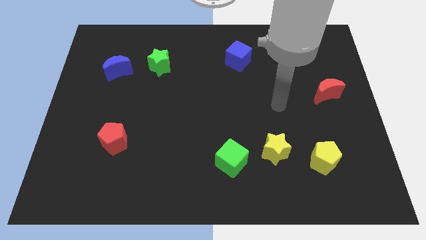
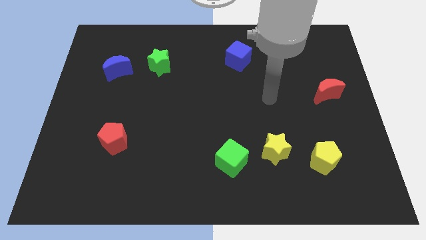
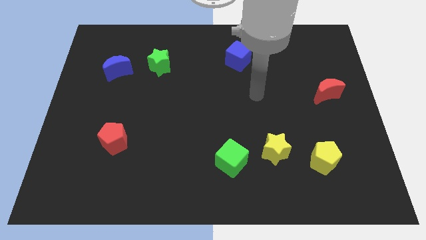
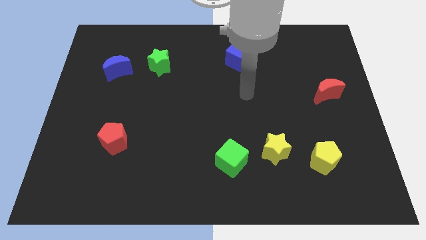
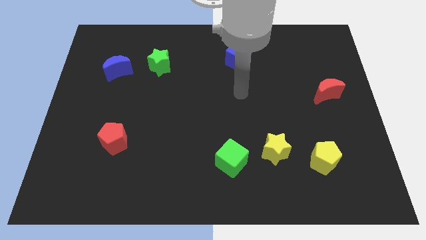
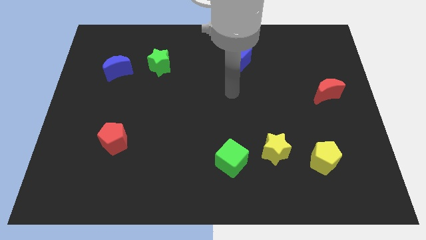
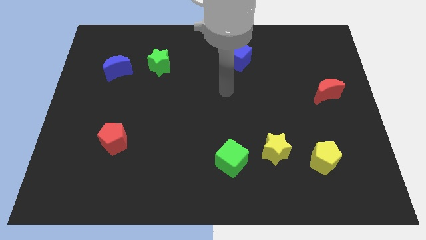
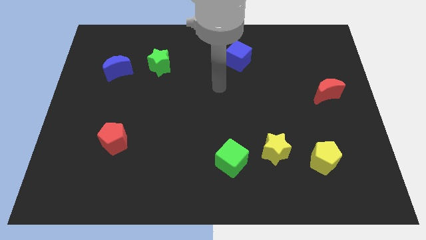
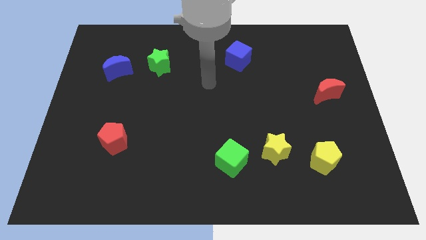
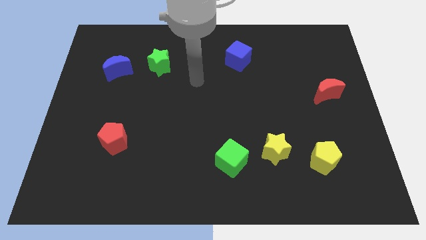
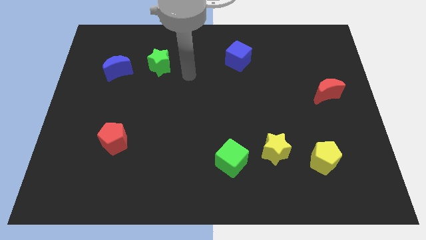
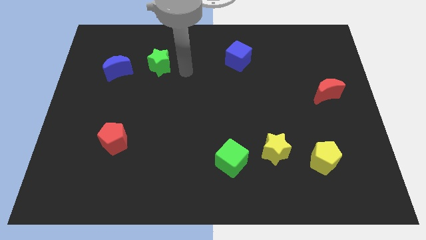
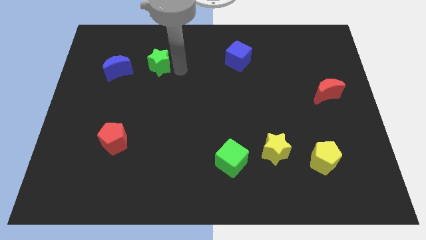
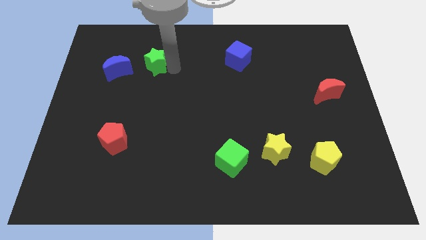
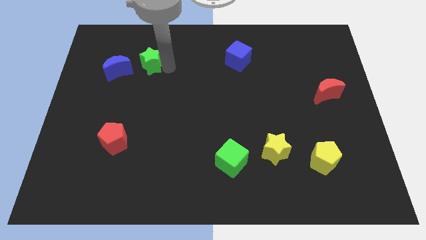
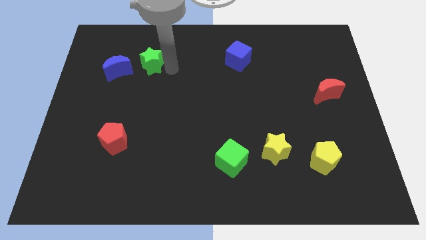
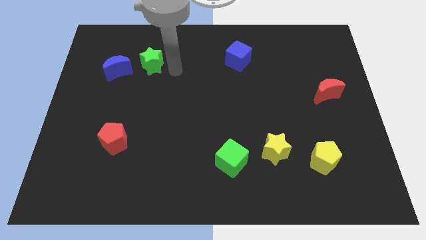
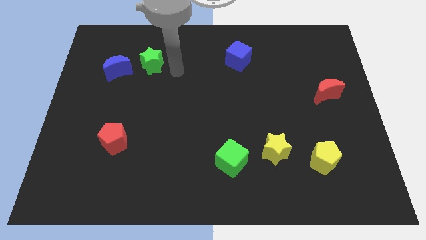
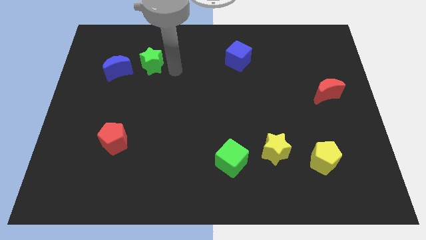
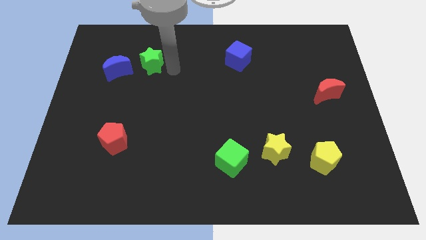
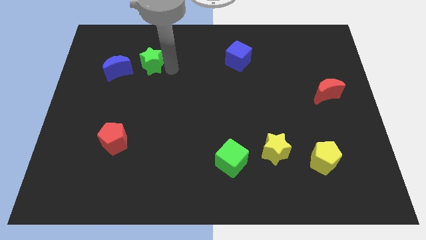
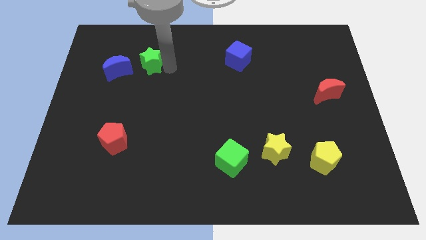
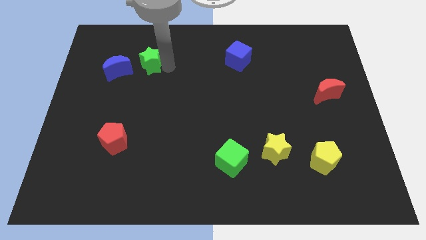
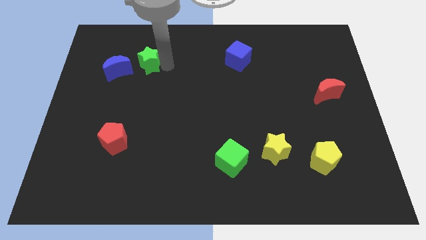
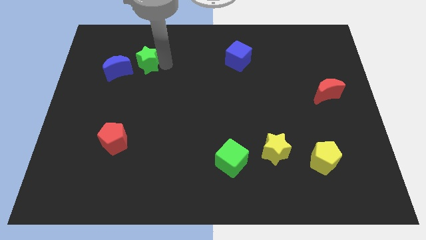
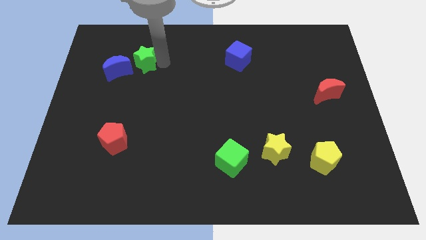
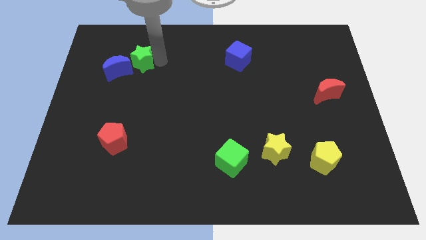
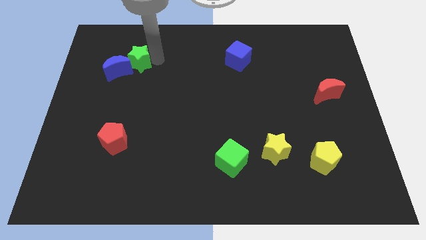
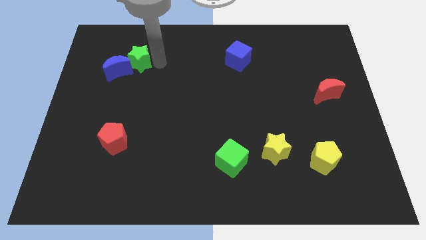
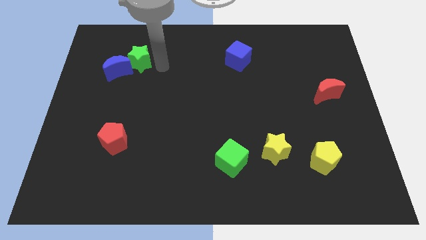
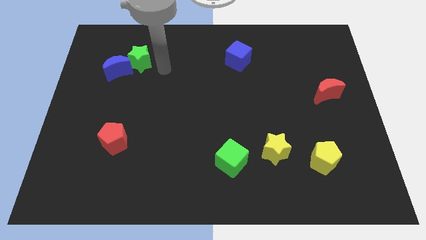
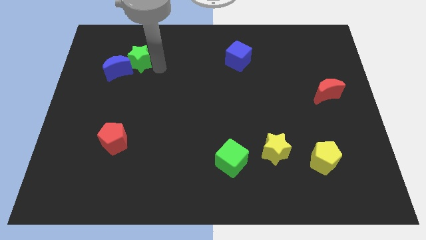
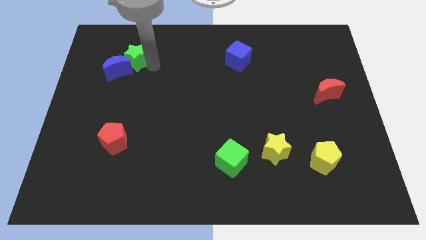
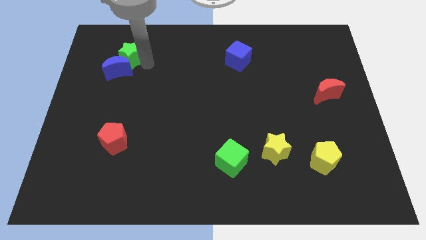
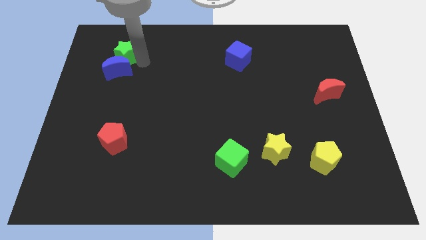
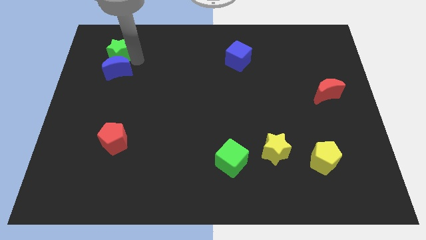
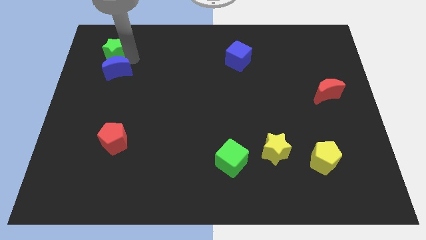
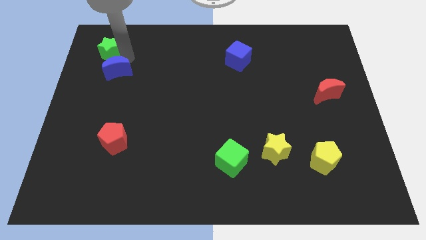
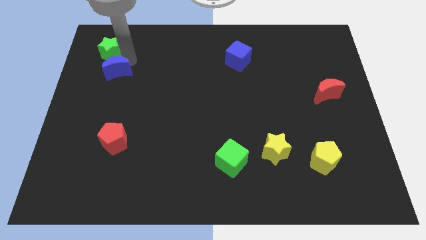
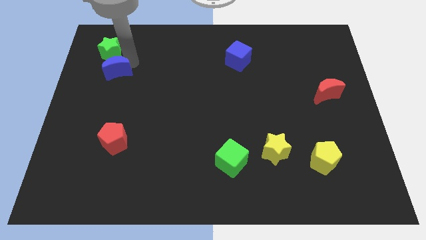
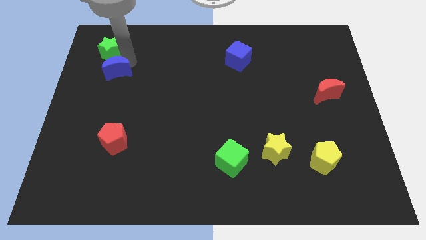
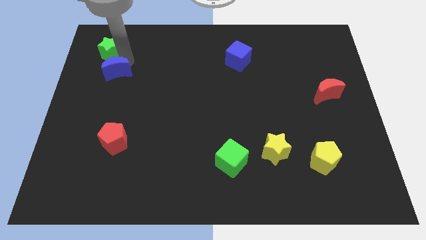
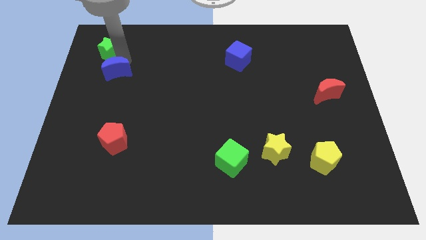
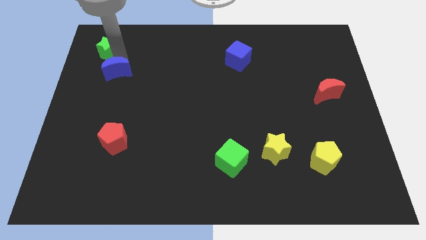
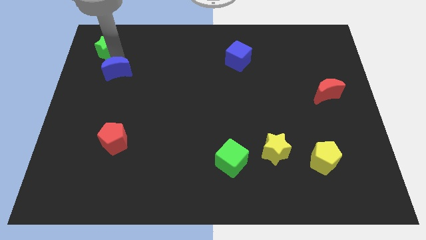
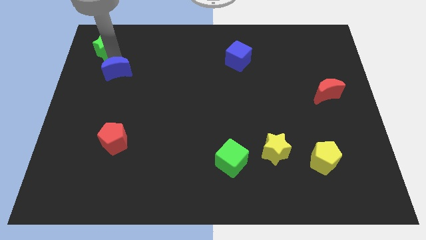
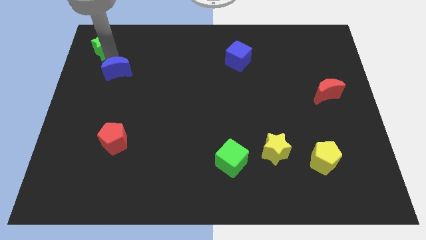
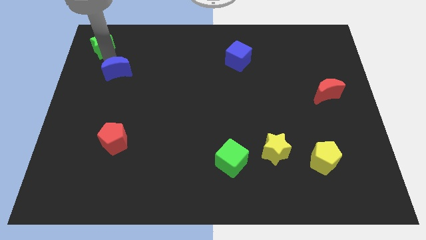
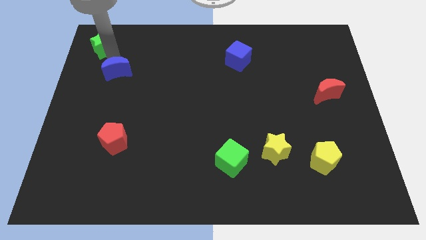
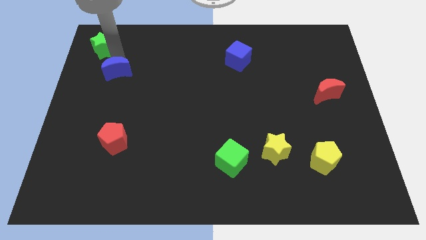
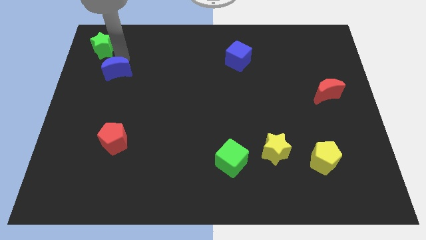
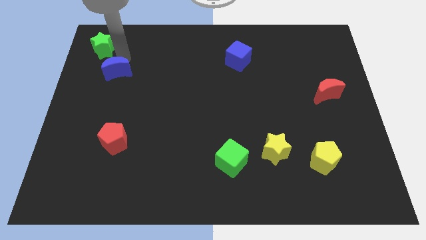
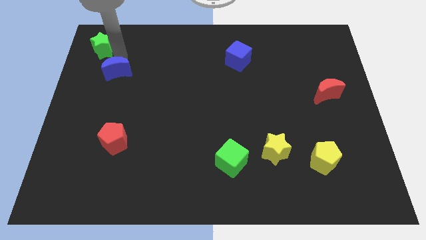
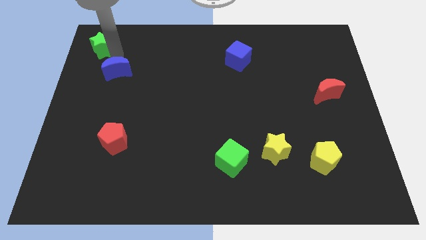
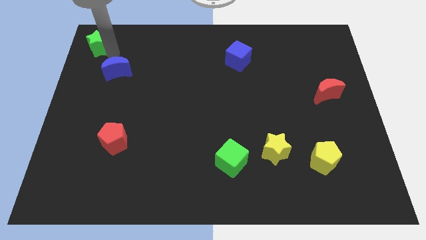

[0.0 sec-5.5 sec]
slide the green star to the top left

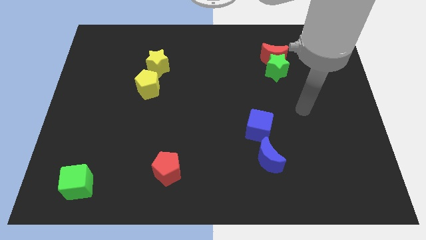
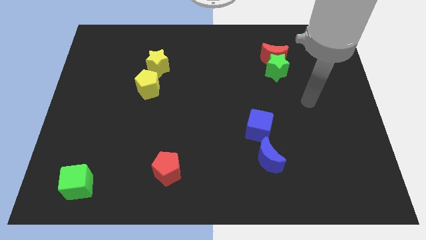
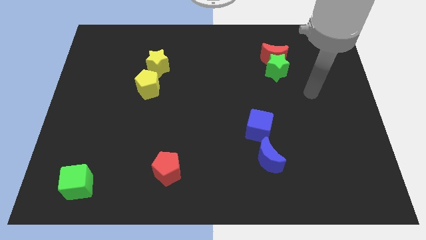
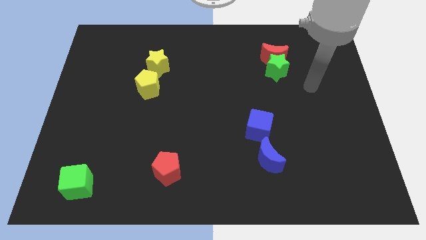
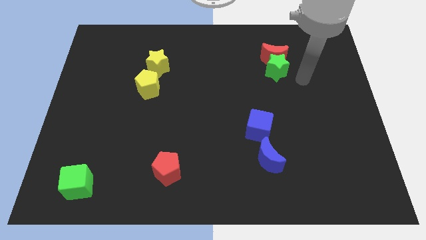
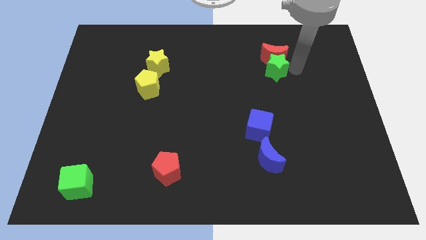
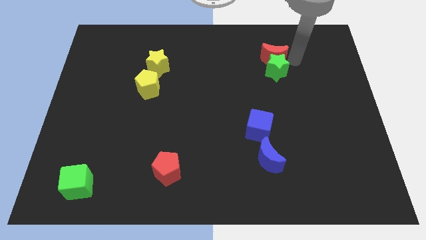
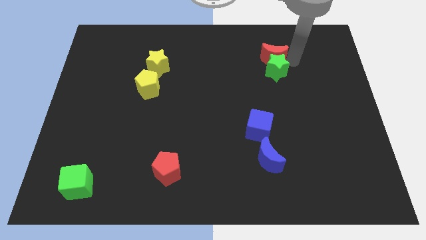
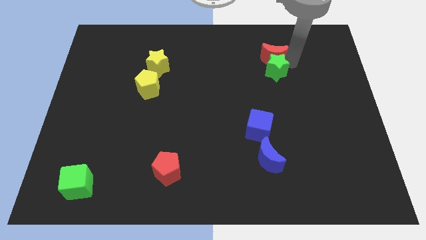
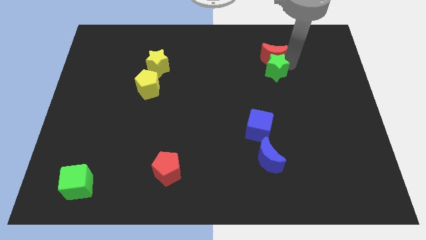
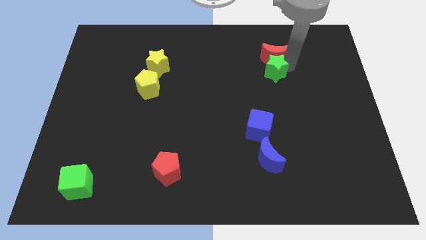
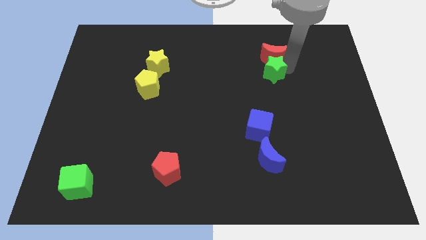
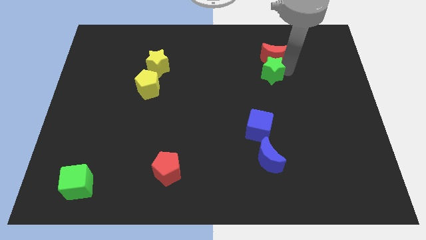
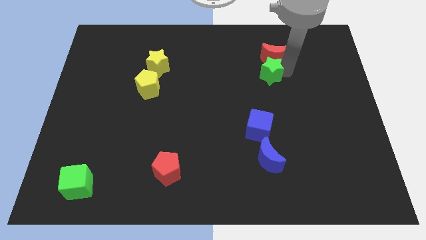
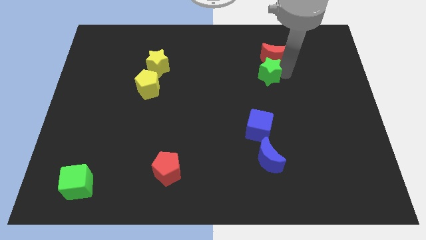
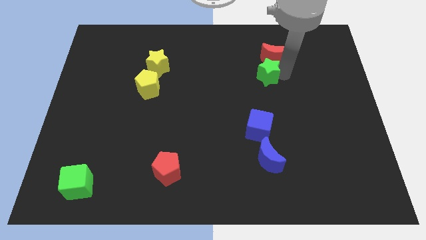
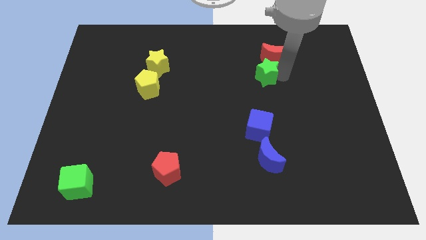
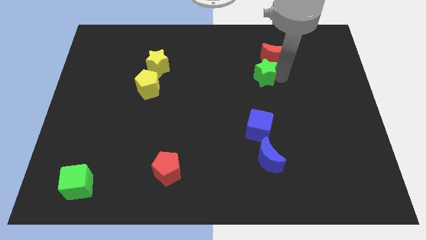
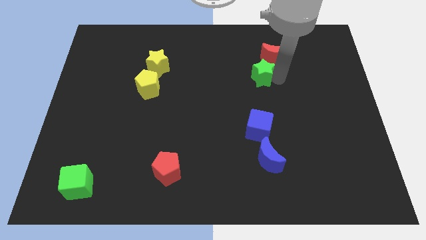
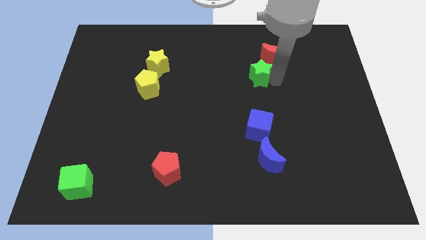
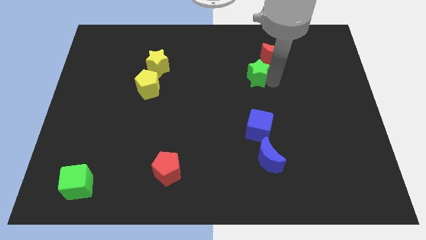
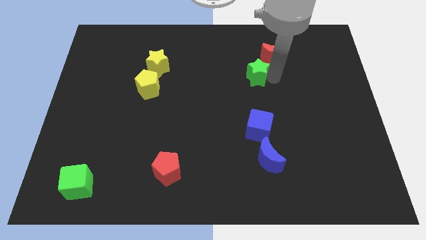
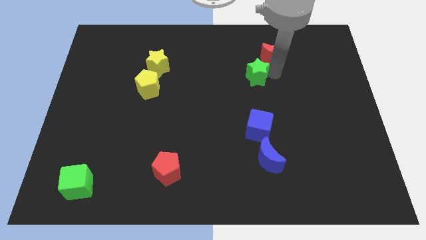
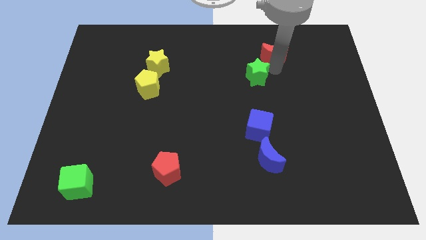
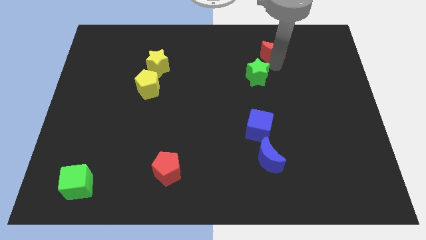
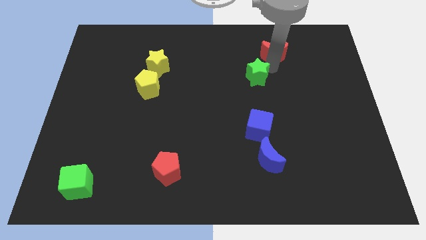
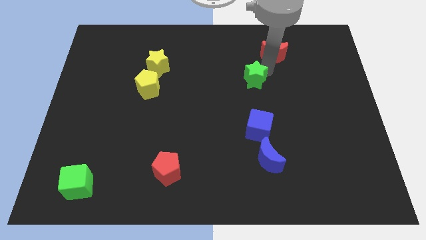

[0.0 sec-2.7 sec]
push the green star to the center of the board
